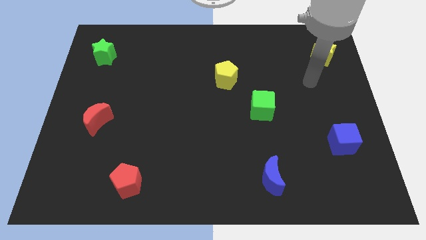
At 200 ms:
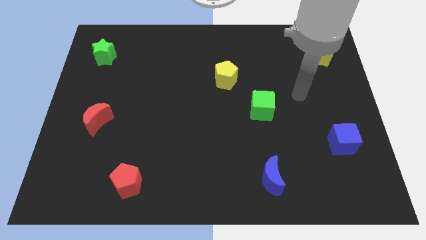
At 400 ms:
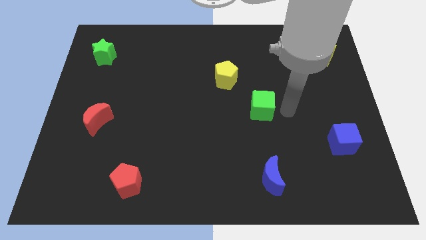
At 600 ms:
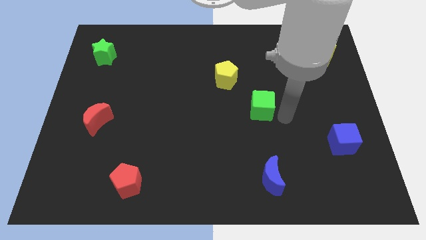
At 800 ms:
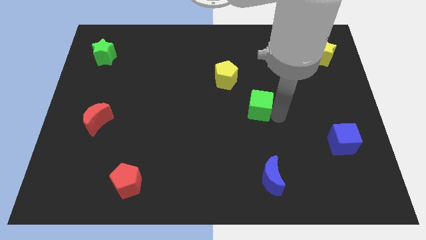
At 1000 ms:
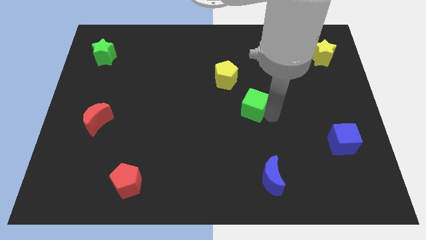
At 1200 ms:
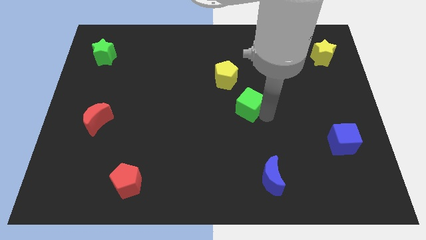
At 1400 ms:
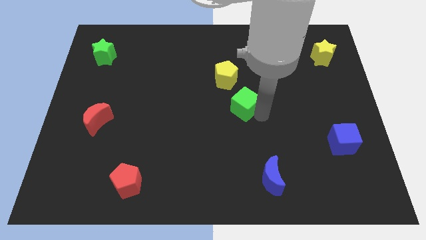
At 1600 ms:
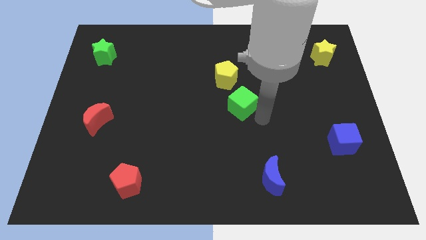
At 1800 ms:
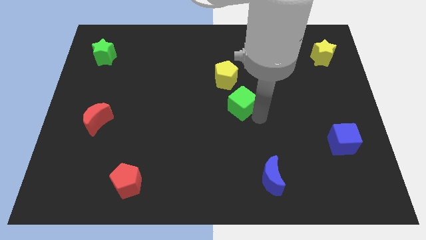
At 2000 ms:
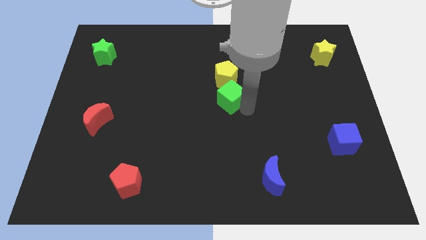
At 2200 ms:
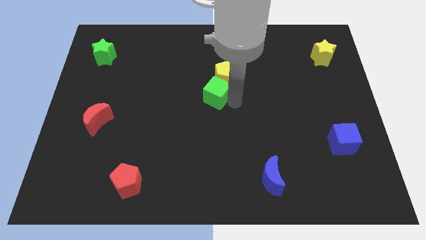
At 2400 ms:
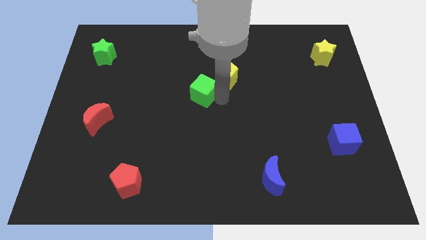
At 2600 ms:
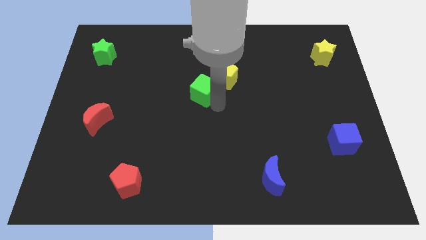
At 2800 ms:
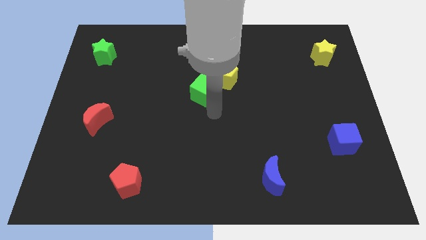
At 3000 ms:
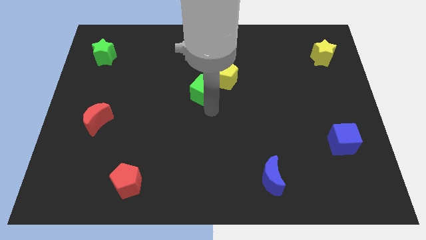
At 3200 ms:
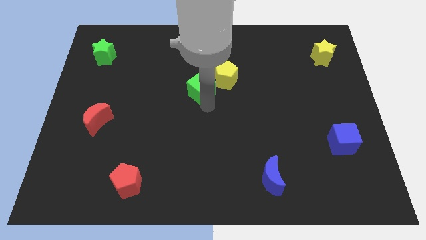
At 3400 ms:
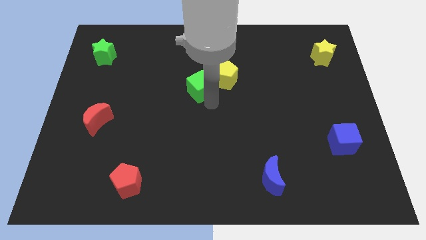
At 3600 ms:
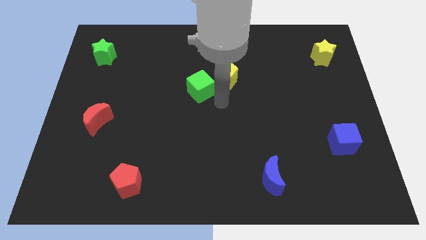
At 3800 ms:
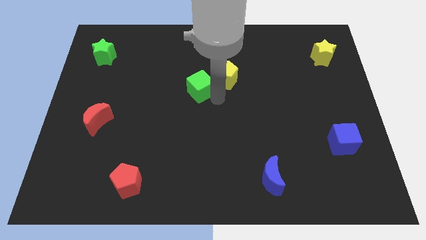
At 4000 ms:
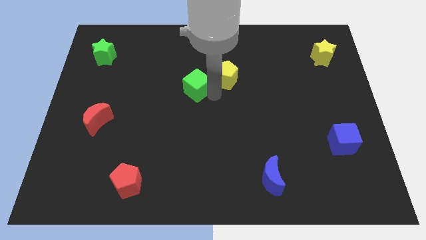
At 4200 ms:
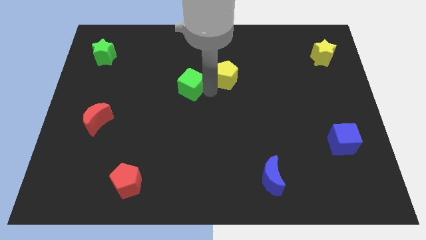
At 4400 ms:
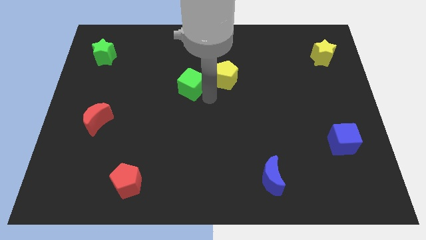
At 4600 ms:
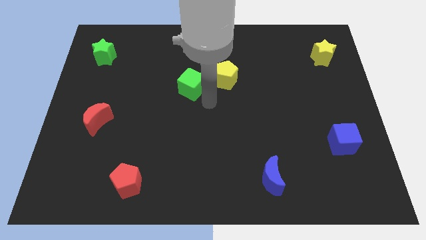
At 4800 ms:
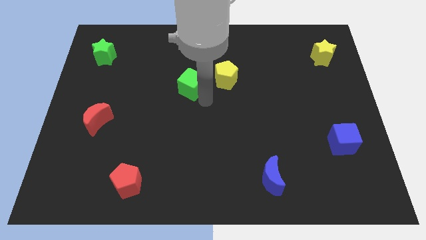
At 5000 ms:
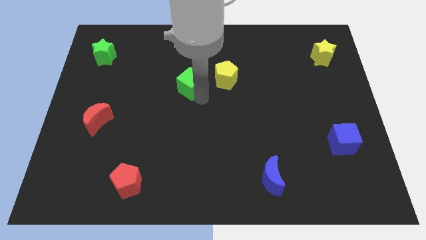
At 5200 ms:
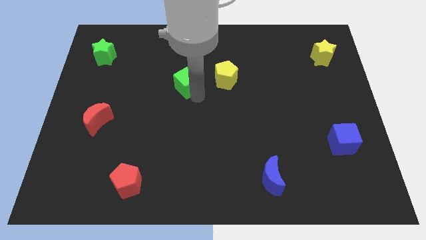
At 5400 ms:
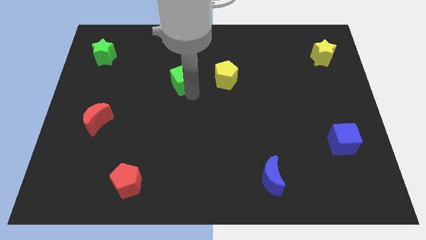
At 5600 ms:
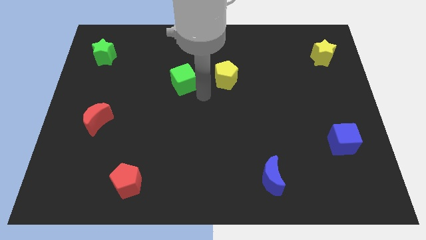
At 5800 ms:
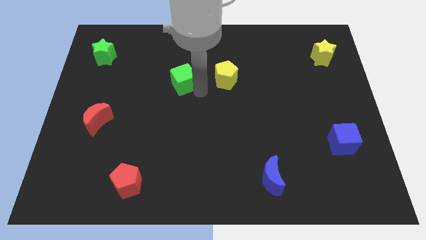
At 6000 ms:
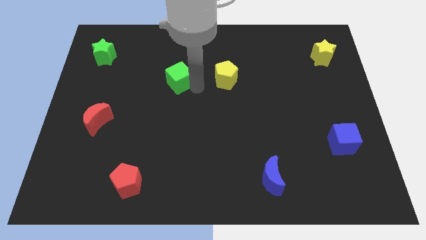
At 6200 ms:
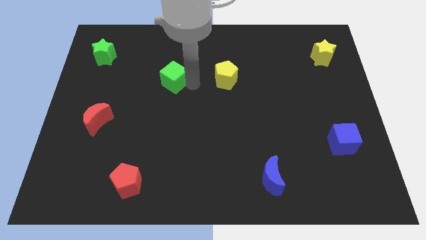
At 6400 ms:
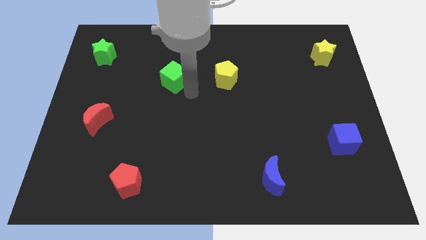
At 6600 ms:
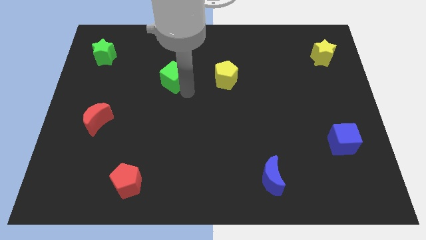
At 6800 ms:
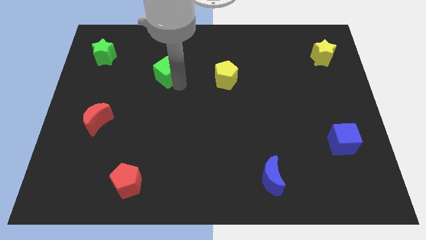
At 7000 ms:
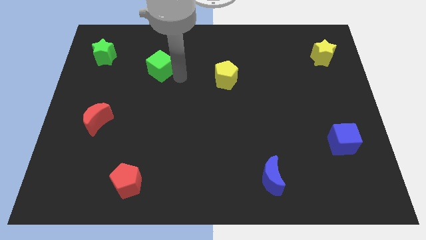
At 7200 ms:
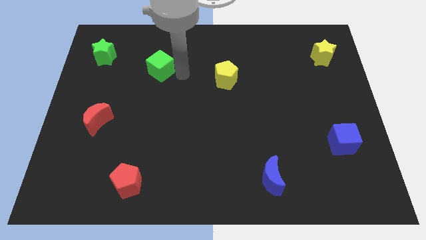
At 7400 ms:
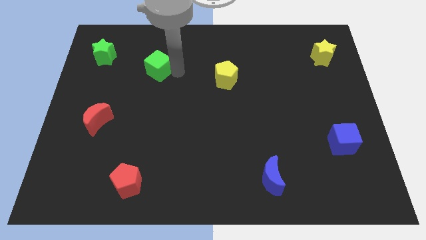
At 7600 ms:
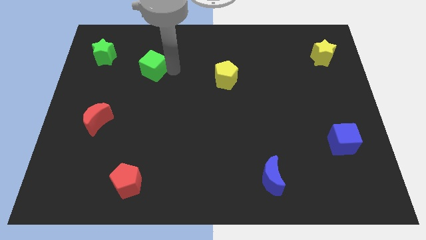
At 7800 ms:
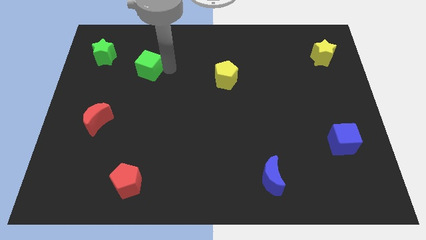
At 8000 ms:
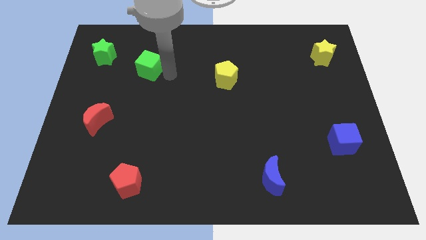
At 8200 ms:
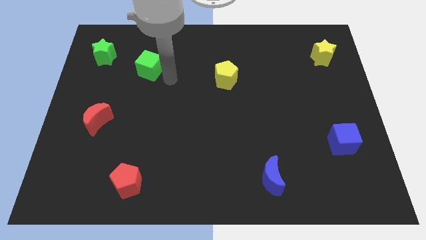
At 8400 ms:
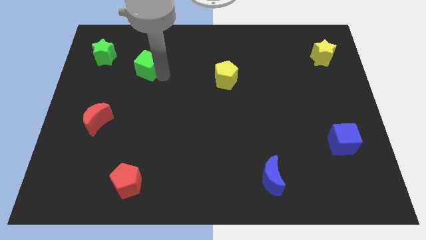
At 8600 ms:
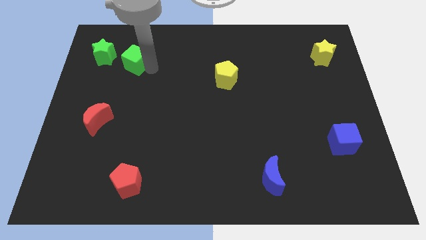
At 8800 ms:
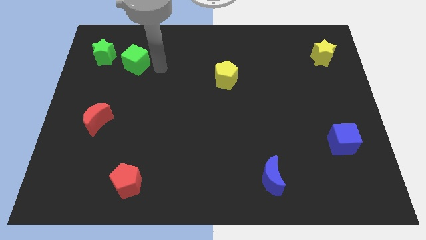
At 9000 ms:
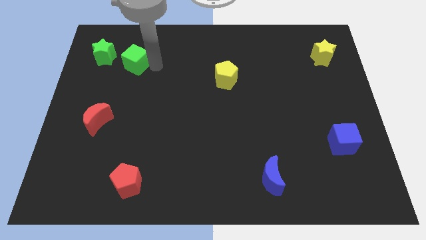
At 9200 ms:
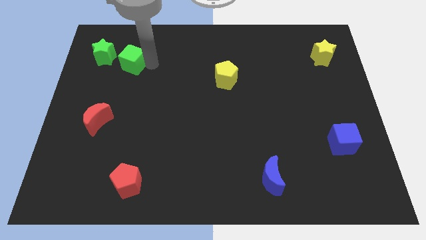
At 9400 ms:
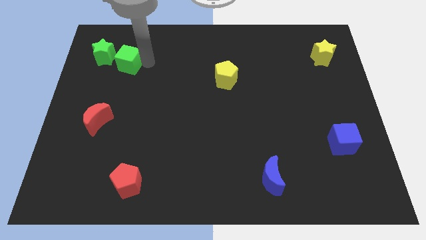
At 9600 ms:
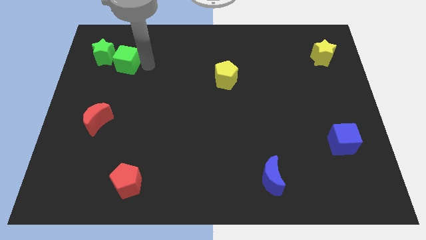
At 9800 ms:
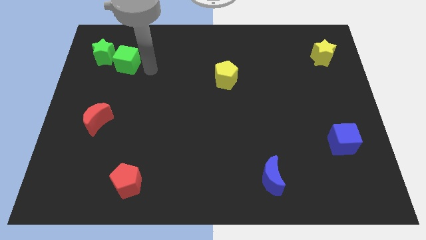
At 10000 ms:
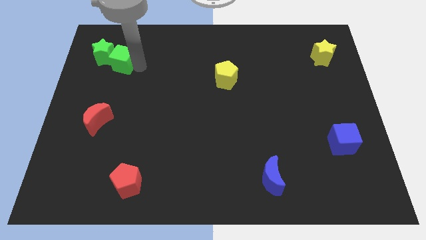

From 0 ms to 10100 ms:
put the green cube close to the green star

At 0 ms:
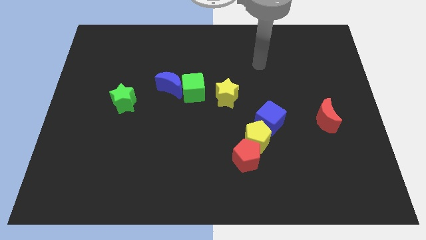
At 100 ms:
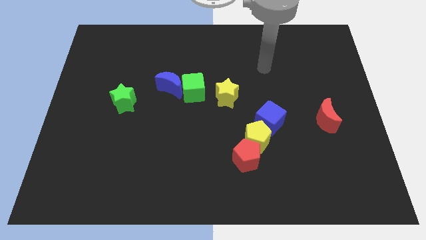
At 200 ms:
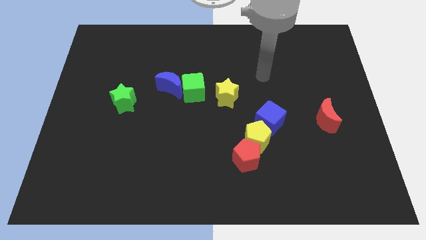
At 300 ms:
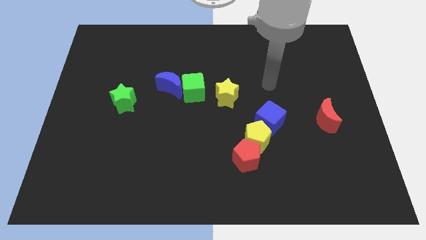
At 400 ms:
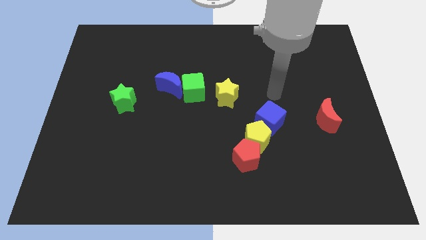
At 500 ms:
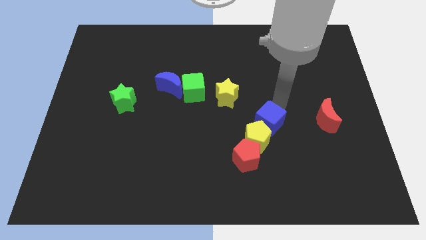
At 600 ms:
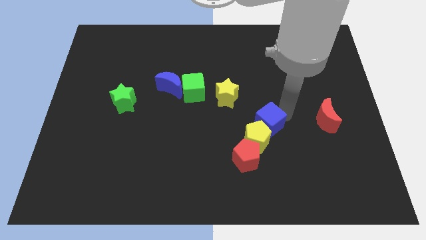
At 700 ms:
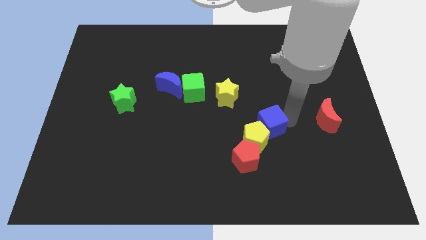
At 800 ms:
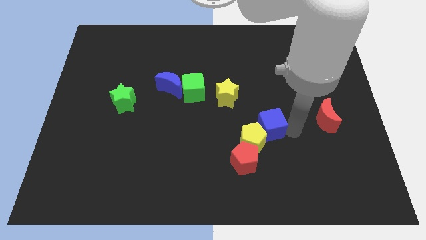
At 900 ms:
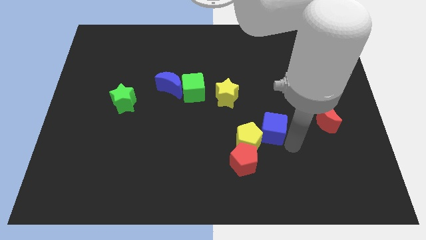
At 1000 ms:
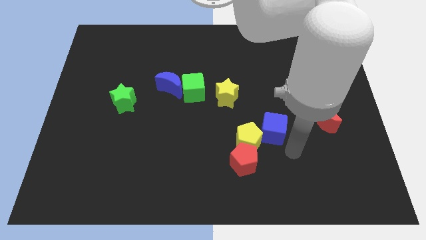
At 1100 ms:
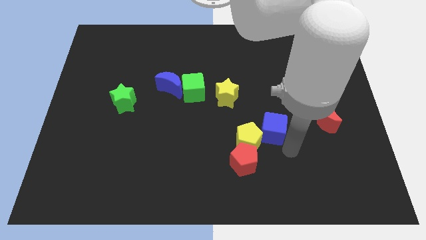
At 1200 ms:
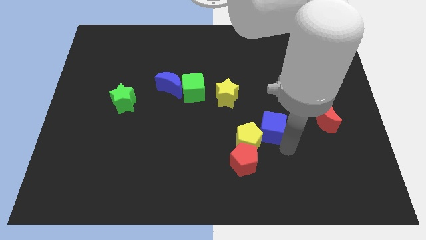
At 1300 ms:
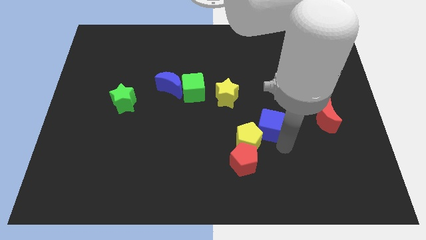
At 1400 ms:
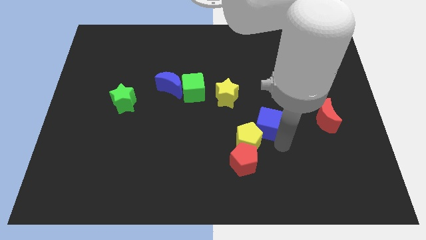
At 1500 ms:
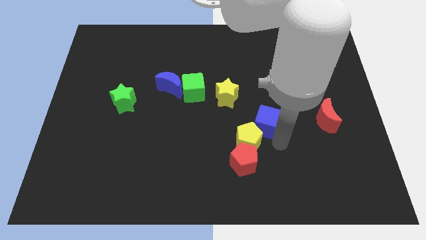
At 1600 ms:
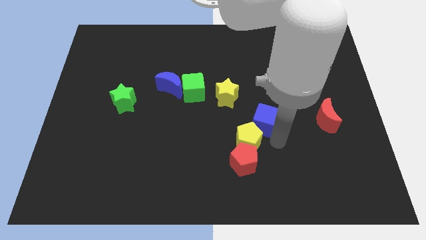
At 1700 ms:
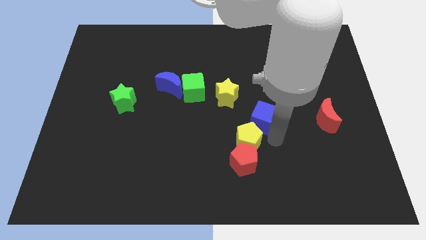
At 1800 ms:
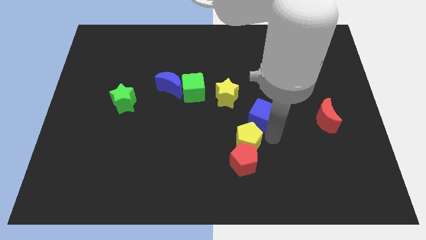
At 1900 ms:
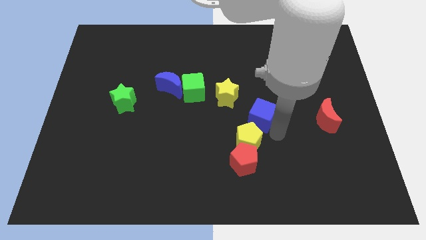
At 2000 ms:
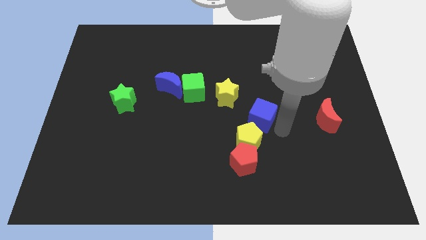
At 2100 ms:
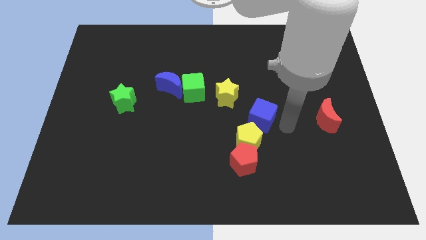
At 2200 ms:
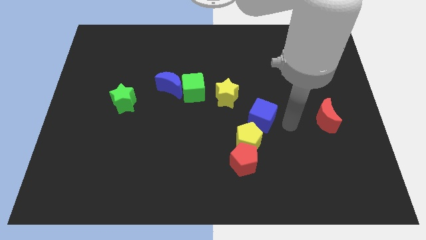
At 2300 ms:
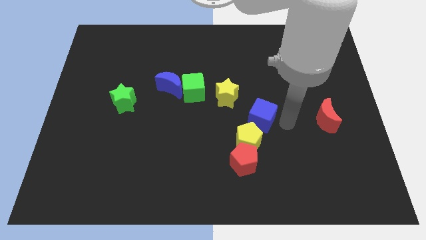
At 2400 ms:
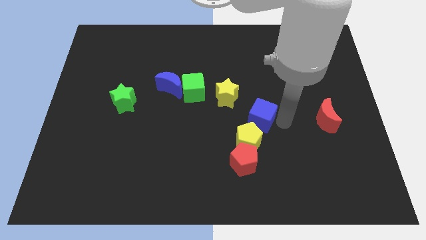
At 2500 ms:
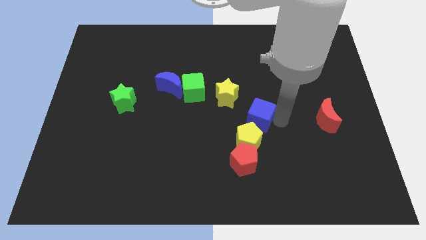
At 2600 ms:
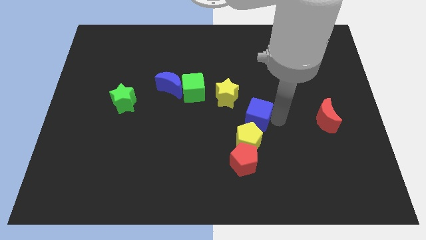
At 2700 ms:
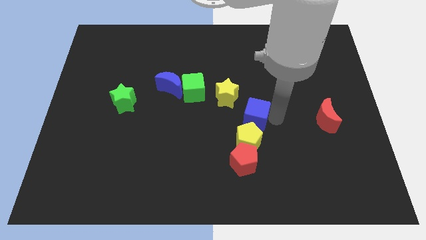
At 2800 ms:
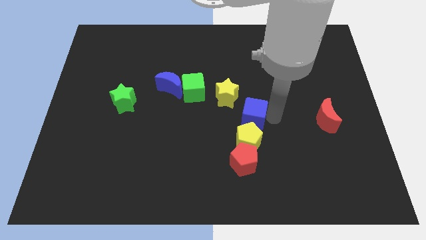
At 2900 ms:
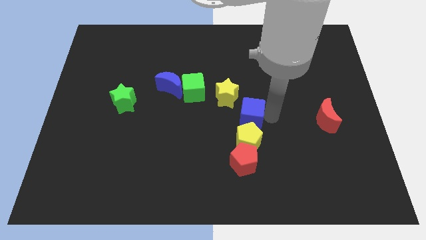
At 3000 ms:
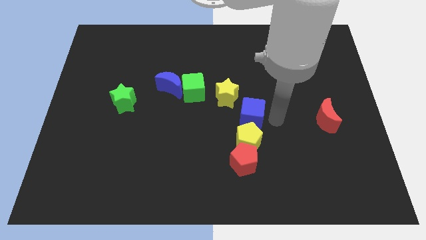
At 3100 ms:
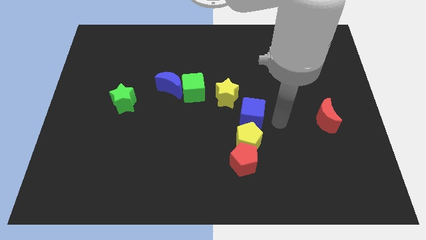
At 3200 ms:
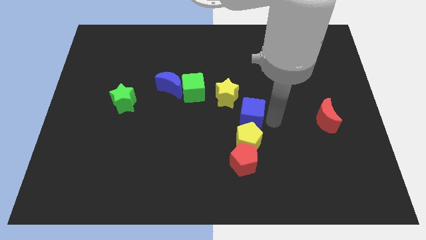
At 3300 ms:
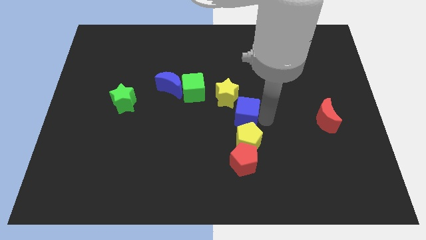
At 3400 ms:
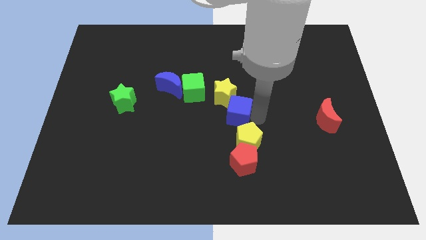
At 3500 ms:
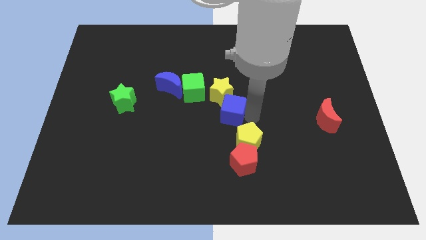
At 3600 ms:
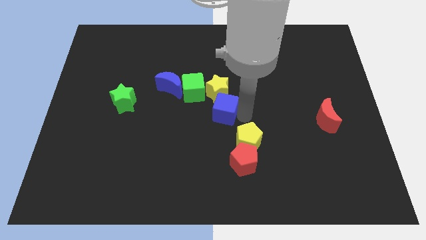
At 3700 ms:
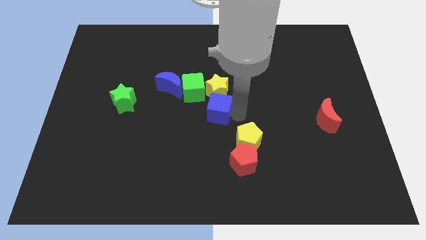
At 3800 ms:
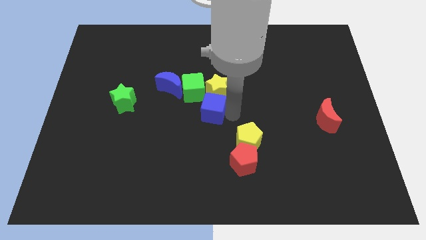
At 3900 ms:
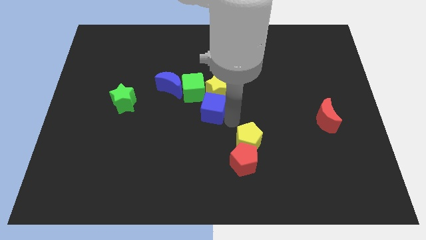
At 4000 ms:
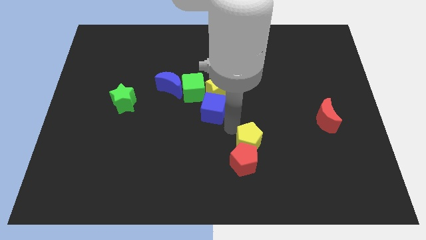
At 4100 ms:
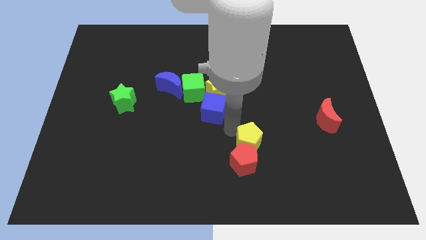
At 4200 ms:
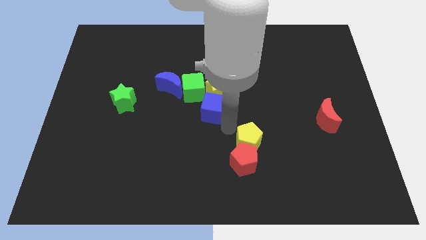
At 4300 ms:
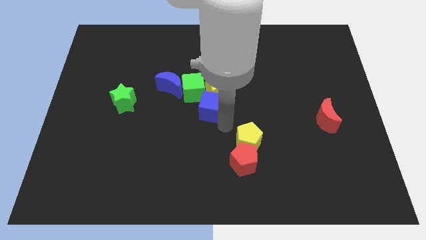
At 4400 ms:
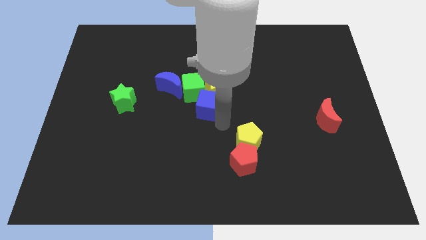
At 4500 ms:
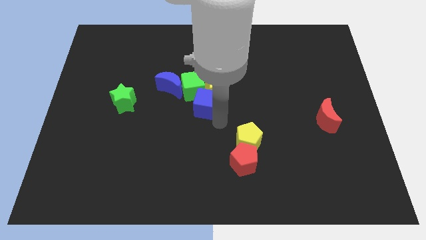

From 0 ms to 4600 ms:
push the blue cube close to the green cube
